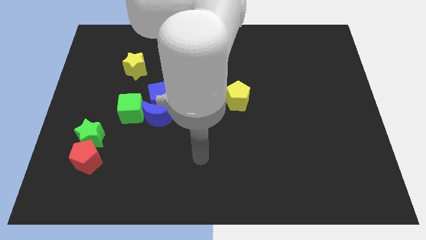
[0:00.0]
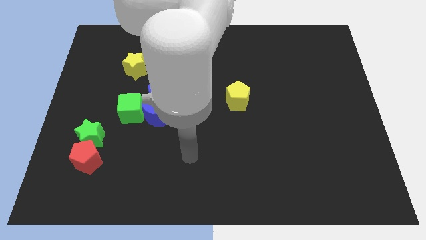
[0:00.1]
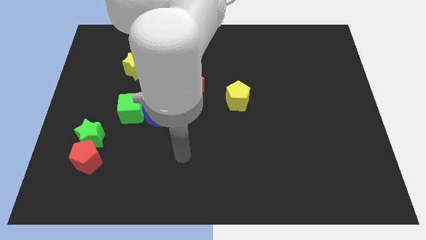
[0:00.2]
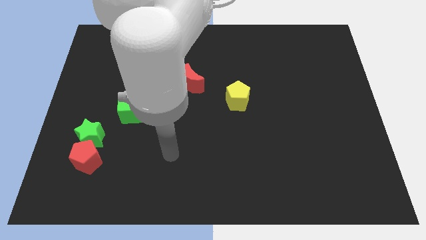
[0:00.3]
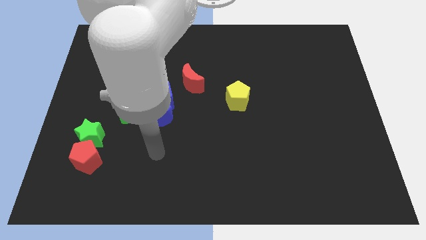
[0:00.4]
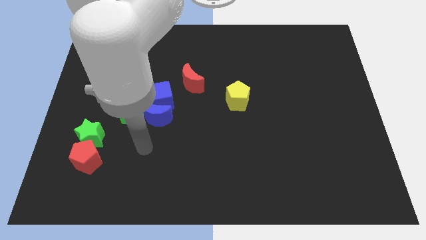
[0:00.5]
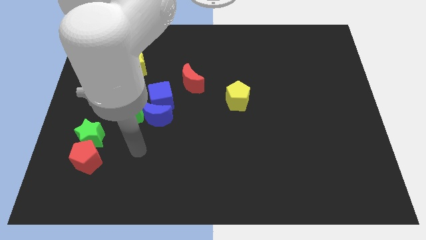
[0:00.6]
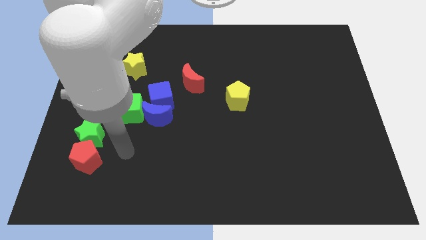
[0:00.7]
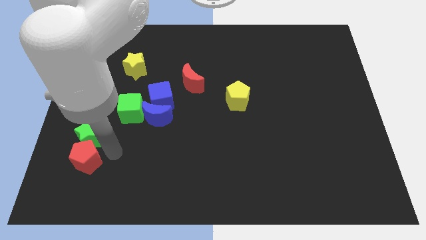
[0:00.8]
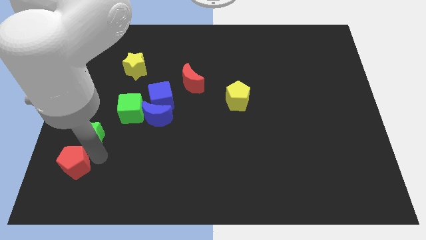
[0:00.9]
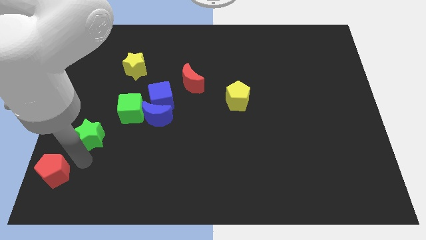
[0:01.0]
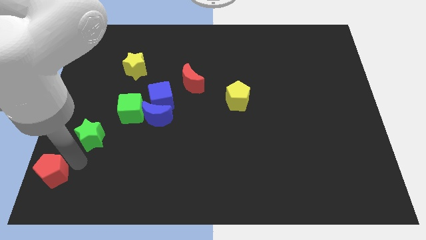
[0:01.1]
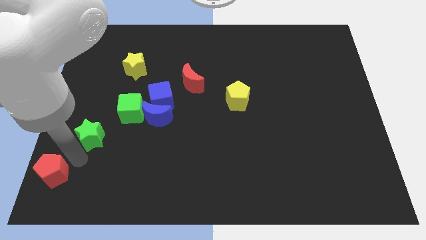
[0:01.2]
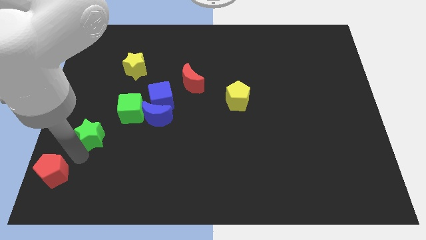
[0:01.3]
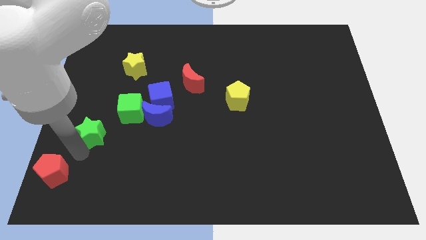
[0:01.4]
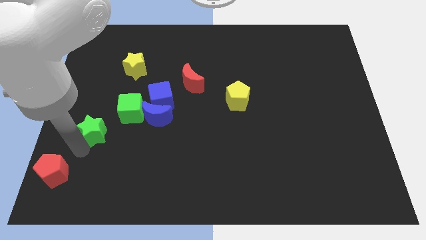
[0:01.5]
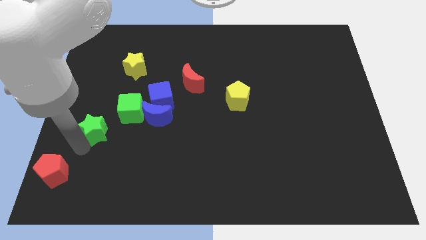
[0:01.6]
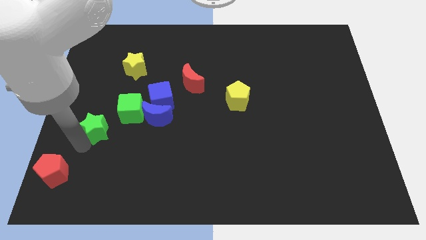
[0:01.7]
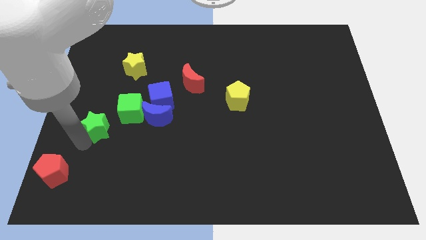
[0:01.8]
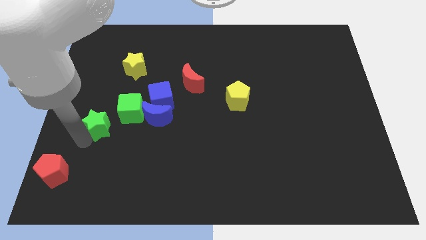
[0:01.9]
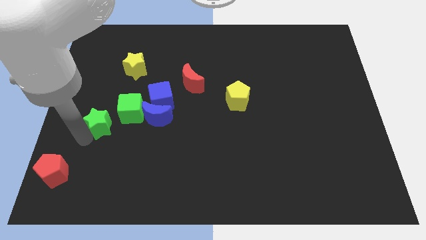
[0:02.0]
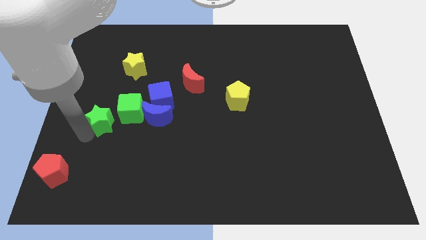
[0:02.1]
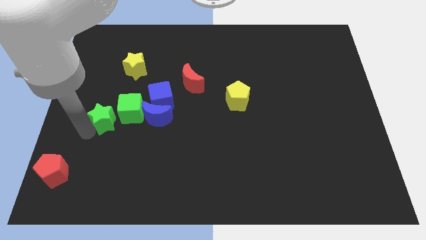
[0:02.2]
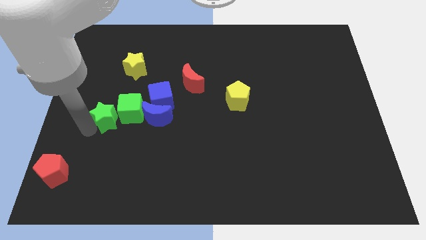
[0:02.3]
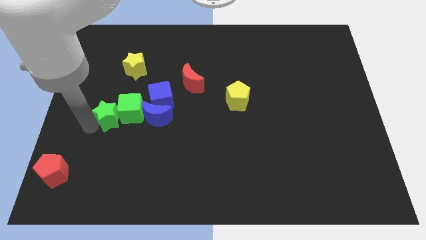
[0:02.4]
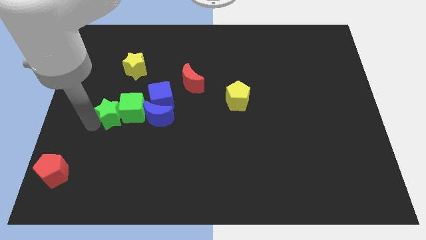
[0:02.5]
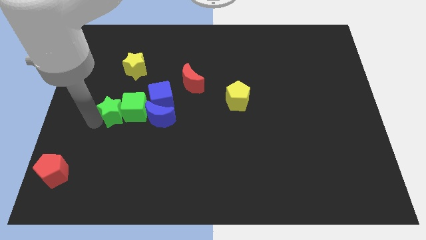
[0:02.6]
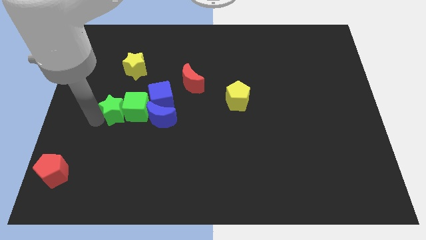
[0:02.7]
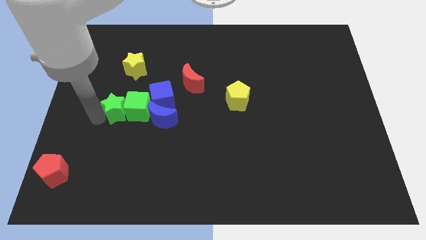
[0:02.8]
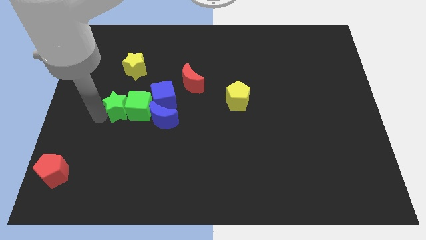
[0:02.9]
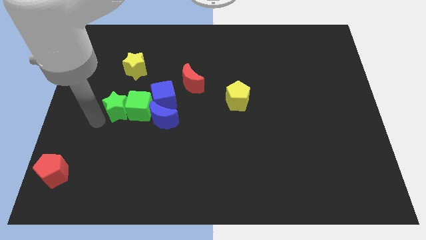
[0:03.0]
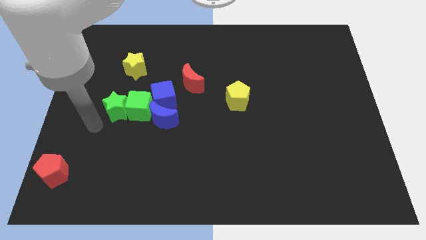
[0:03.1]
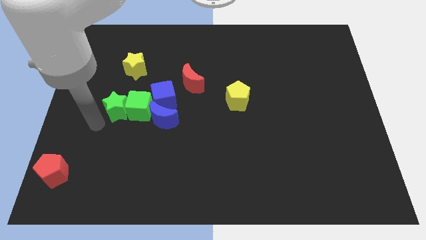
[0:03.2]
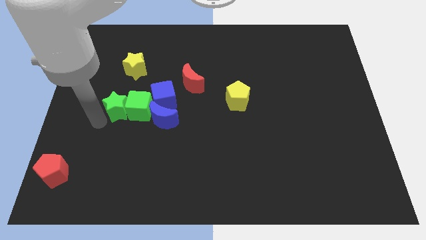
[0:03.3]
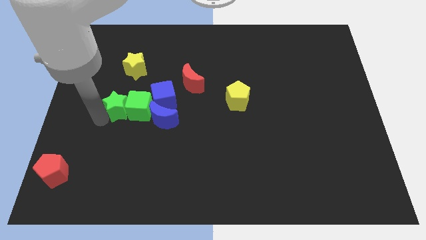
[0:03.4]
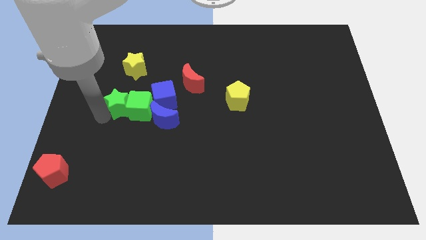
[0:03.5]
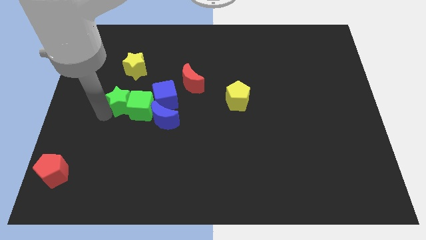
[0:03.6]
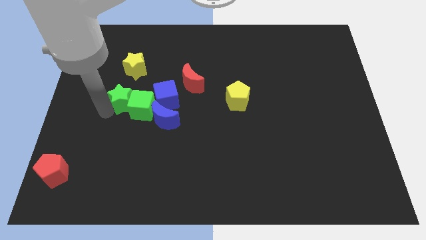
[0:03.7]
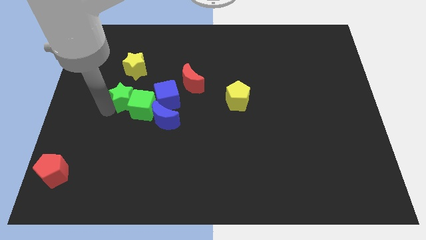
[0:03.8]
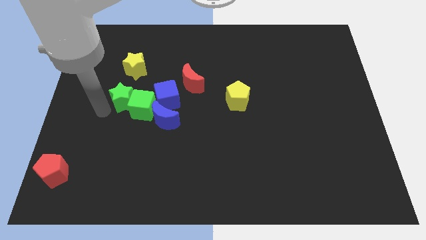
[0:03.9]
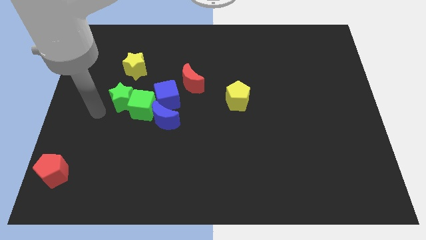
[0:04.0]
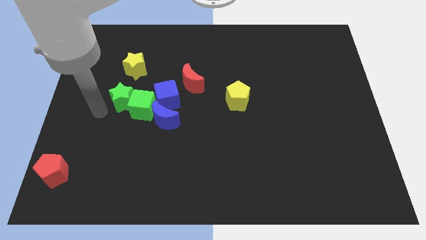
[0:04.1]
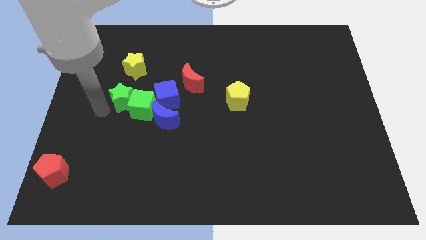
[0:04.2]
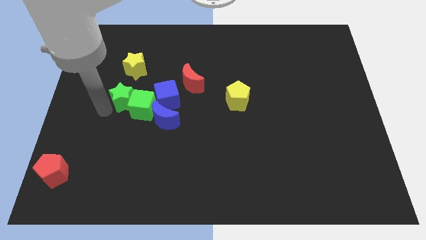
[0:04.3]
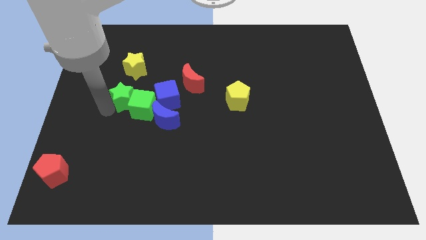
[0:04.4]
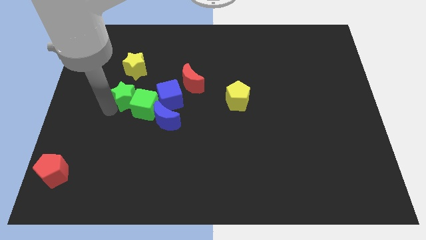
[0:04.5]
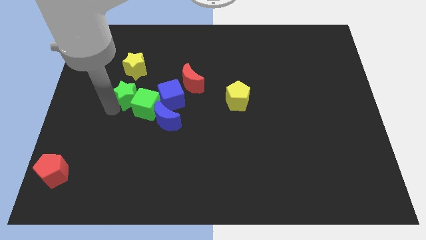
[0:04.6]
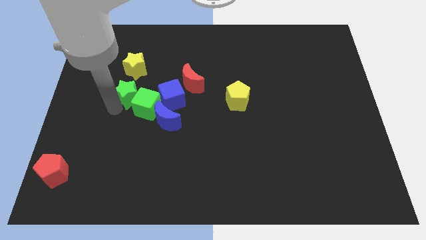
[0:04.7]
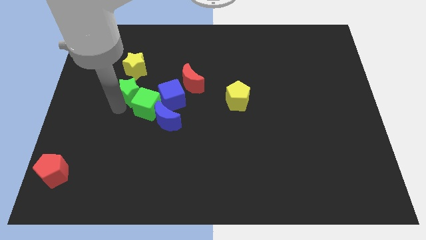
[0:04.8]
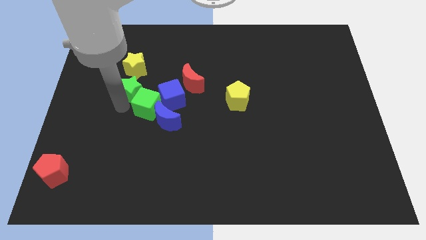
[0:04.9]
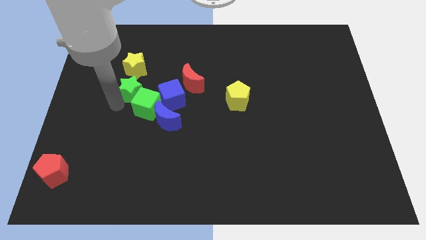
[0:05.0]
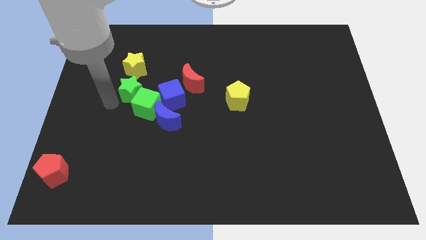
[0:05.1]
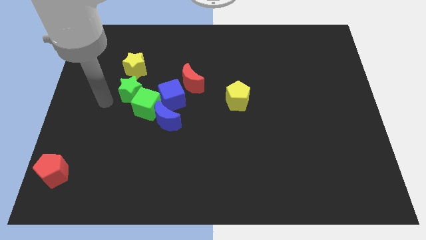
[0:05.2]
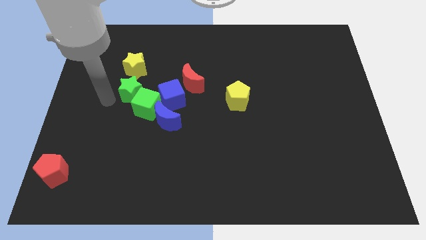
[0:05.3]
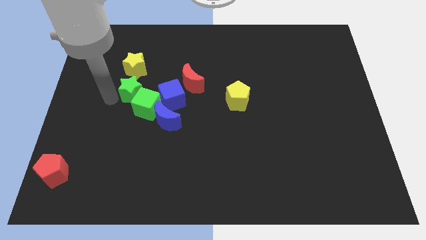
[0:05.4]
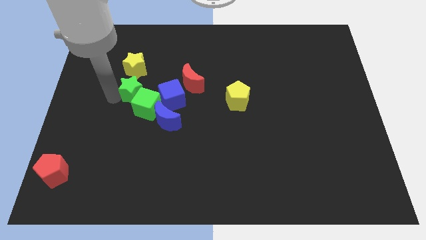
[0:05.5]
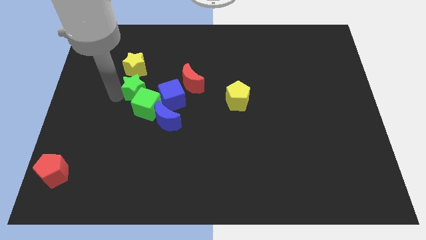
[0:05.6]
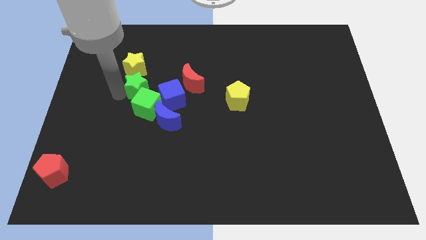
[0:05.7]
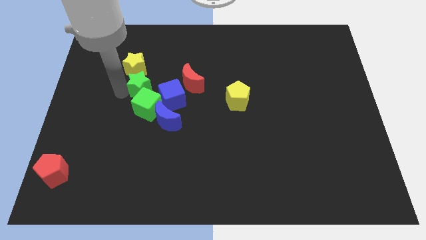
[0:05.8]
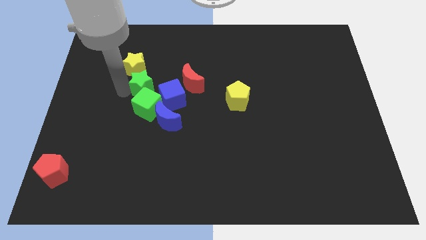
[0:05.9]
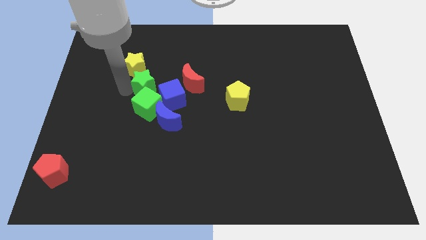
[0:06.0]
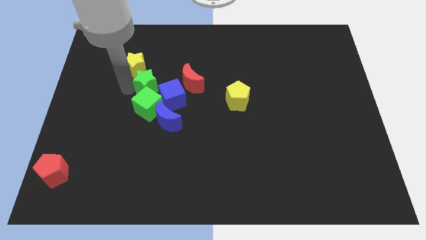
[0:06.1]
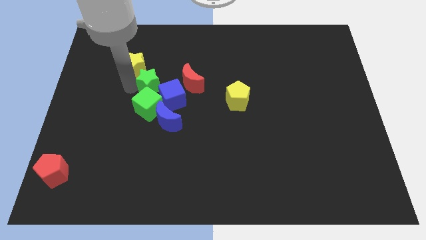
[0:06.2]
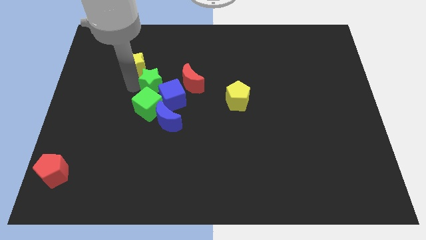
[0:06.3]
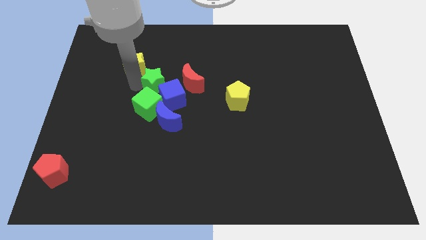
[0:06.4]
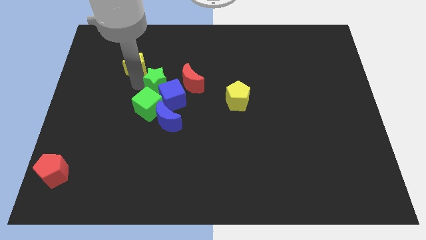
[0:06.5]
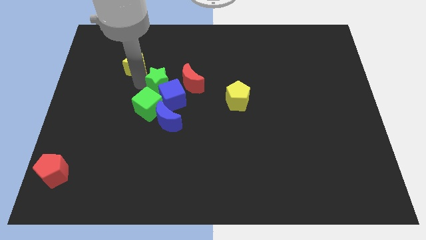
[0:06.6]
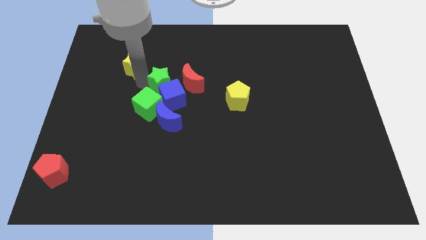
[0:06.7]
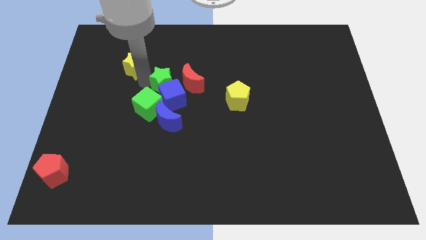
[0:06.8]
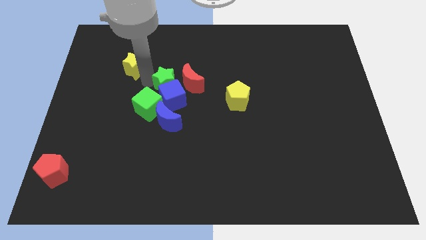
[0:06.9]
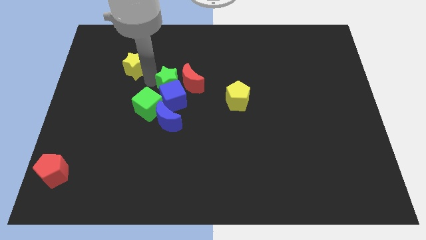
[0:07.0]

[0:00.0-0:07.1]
slide the green star to the red moon
